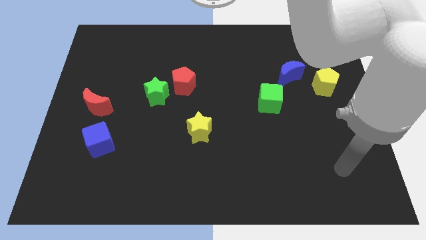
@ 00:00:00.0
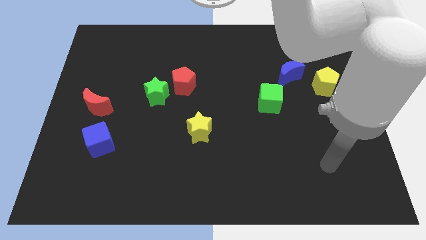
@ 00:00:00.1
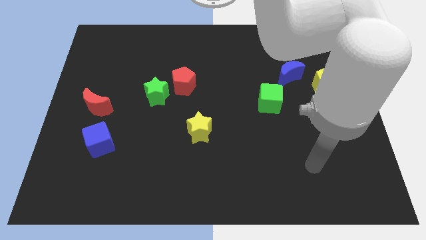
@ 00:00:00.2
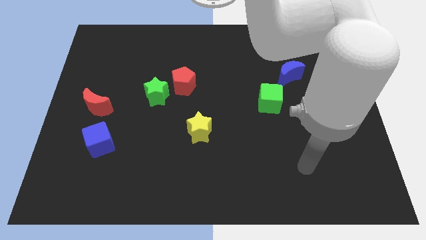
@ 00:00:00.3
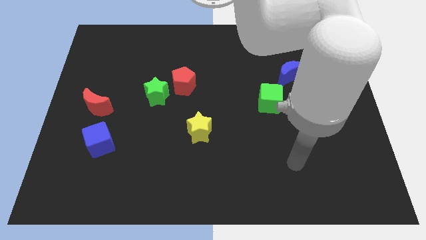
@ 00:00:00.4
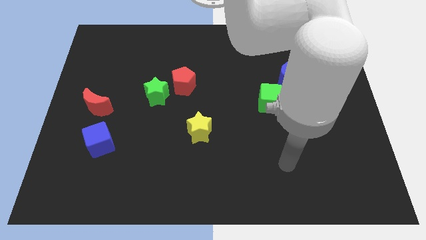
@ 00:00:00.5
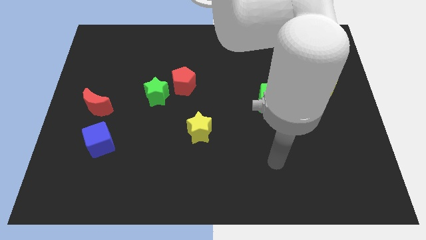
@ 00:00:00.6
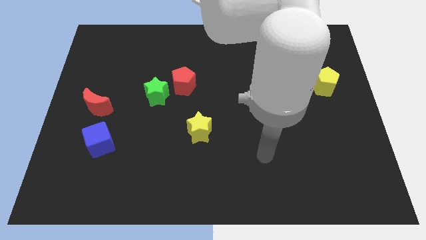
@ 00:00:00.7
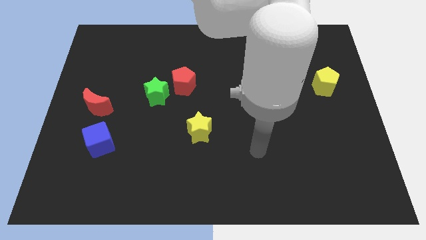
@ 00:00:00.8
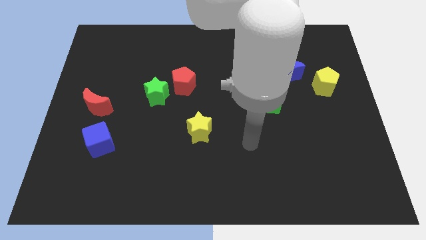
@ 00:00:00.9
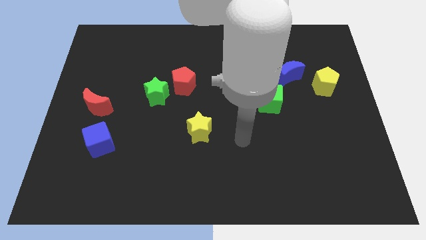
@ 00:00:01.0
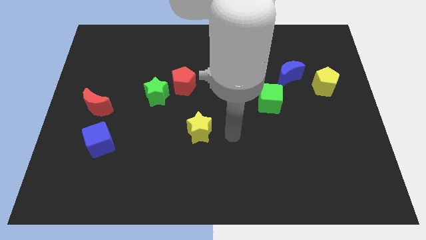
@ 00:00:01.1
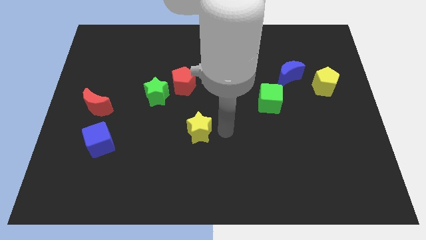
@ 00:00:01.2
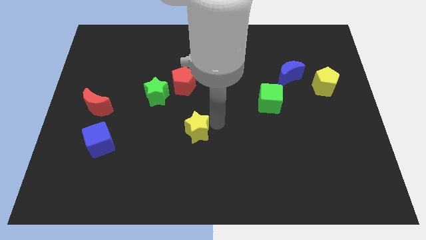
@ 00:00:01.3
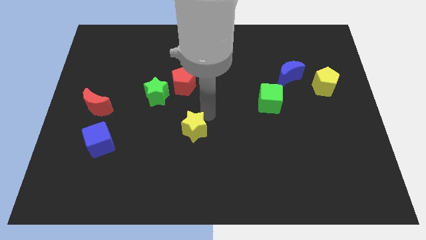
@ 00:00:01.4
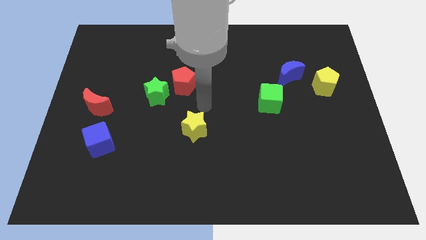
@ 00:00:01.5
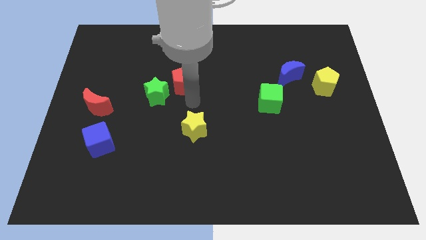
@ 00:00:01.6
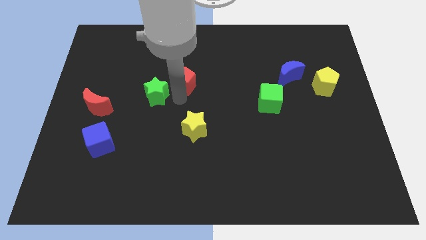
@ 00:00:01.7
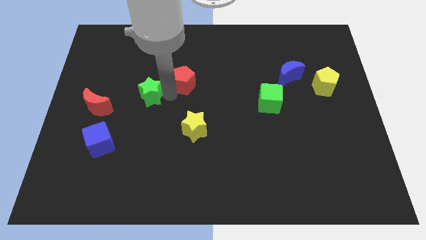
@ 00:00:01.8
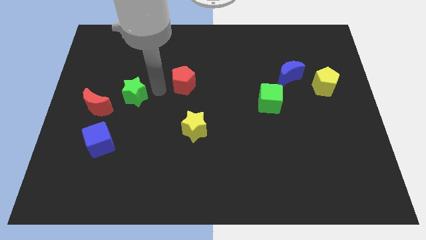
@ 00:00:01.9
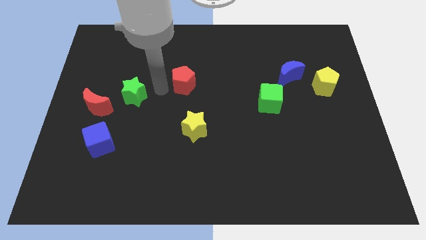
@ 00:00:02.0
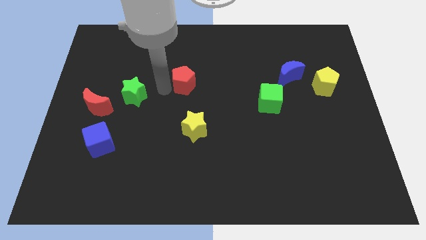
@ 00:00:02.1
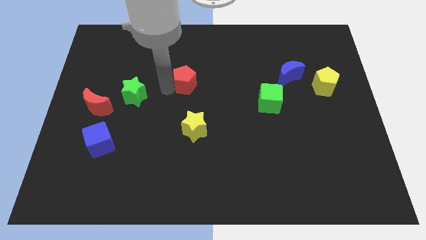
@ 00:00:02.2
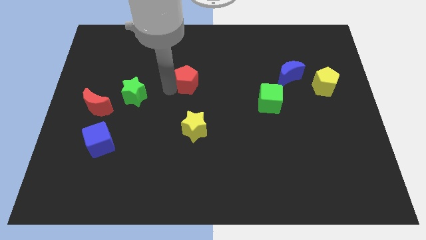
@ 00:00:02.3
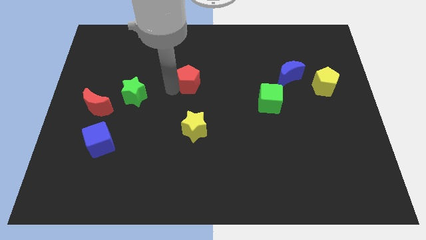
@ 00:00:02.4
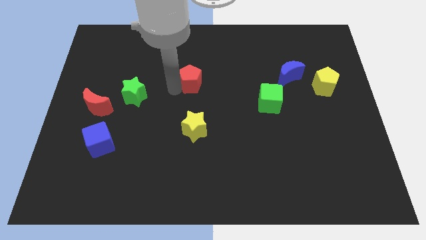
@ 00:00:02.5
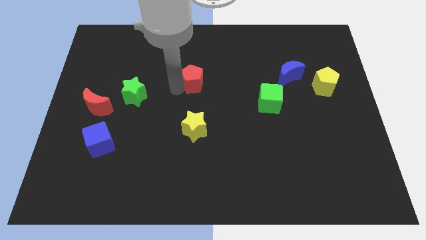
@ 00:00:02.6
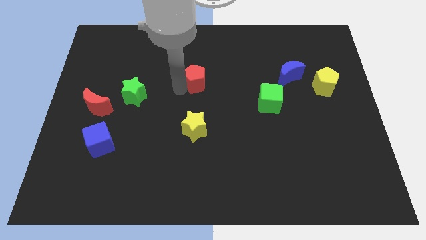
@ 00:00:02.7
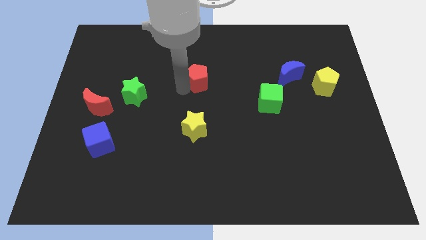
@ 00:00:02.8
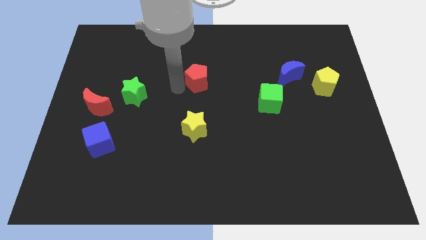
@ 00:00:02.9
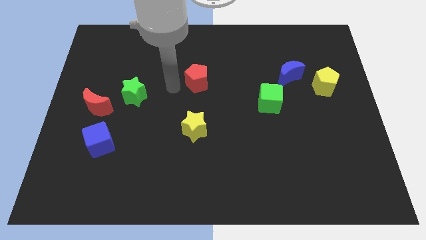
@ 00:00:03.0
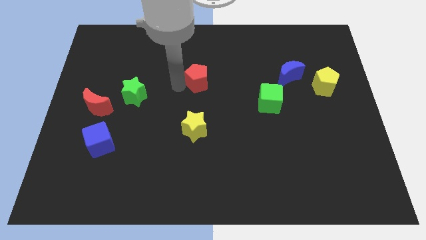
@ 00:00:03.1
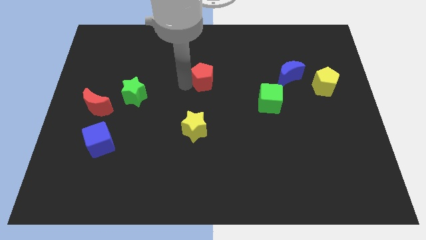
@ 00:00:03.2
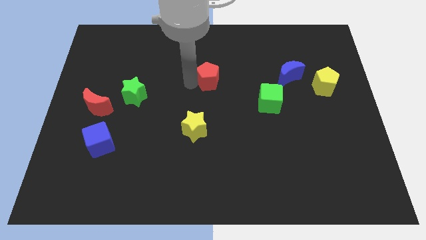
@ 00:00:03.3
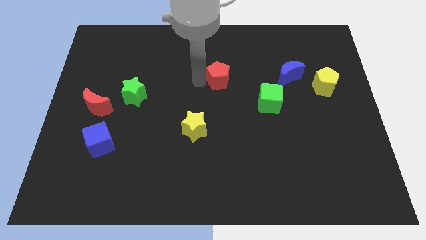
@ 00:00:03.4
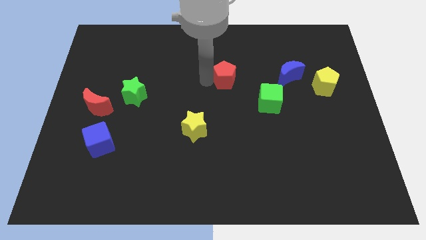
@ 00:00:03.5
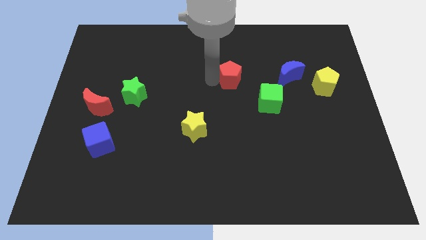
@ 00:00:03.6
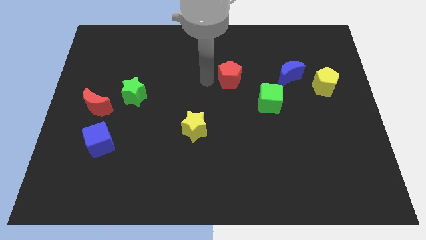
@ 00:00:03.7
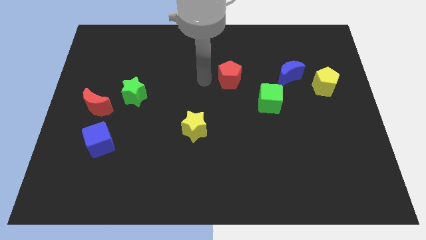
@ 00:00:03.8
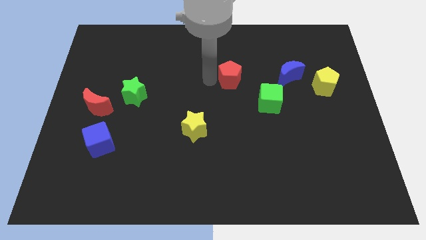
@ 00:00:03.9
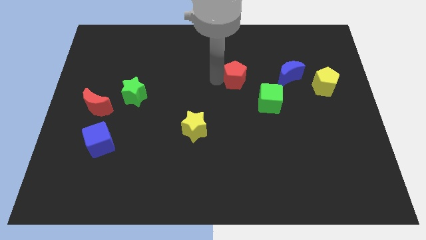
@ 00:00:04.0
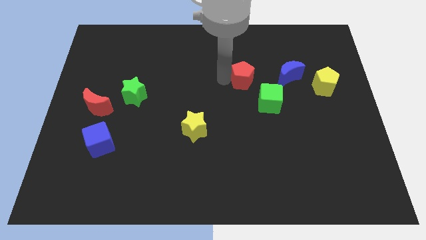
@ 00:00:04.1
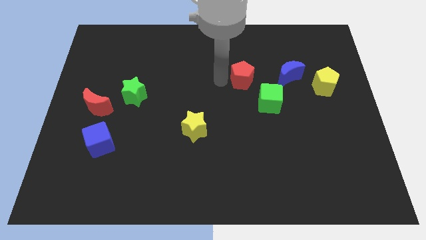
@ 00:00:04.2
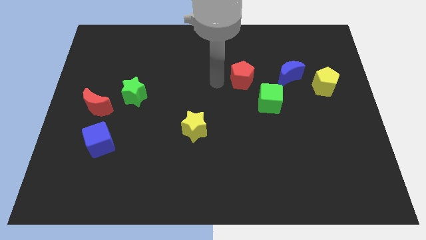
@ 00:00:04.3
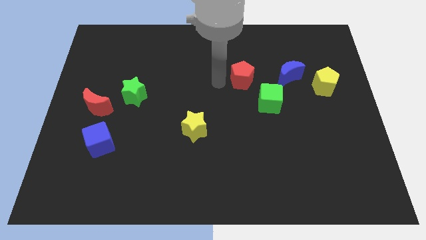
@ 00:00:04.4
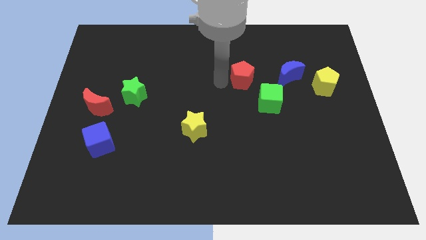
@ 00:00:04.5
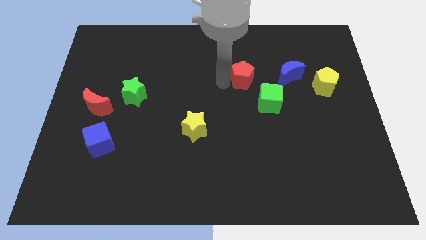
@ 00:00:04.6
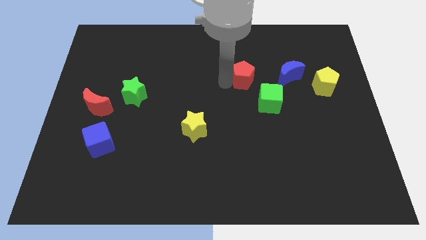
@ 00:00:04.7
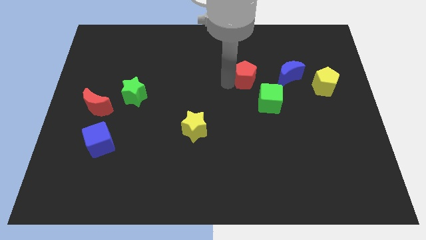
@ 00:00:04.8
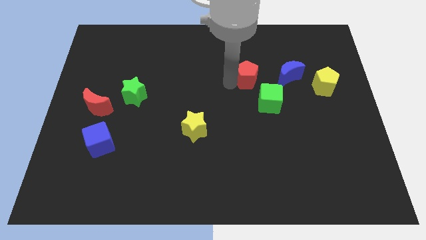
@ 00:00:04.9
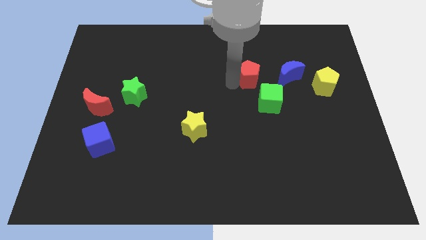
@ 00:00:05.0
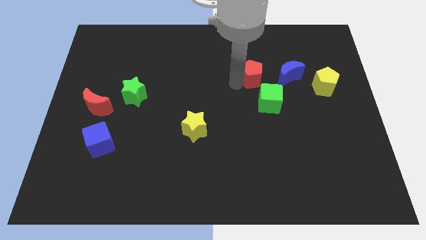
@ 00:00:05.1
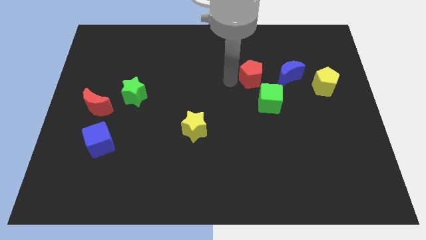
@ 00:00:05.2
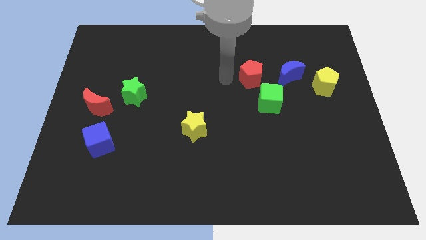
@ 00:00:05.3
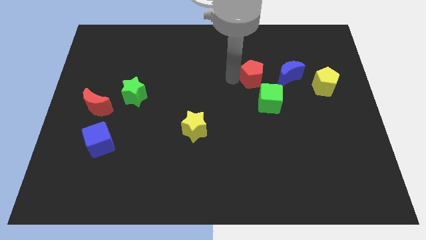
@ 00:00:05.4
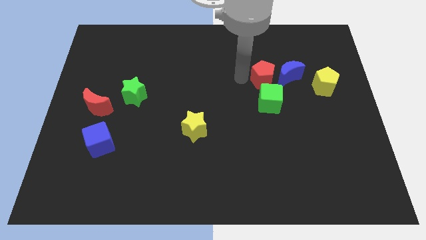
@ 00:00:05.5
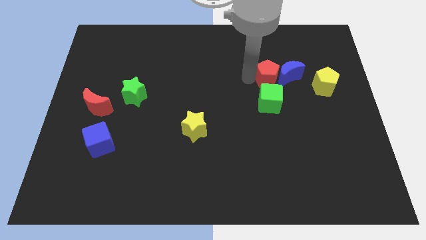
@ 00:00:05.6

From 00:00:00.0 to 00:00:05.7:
slide the red pentagon close to the blue moon

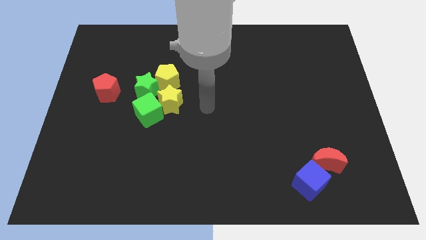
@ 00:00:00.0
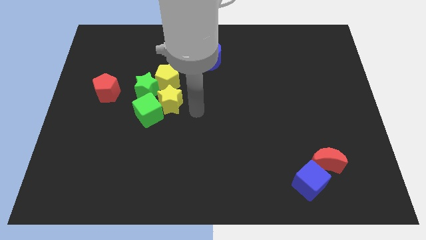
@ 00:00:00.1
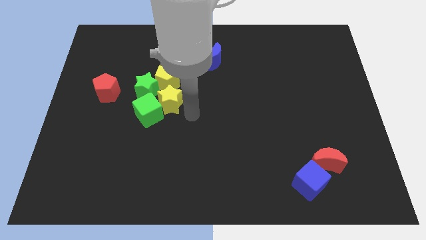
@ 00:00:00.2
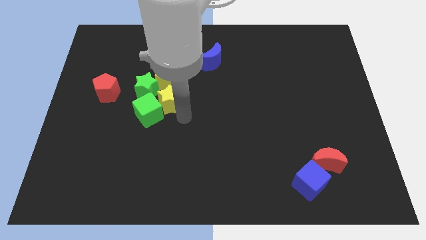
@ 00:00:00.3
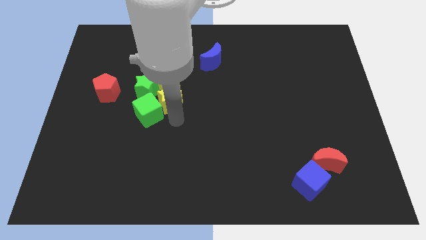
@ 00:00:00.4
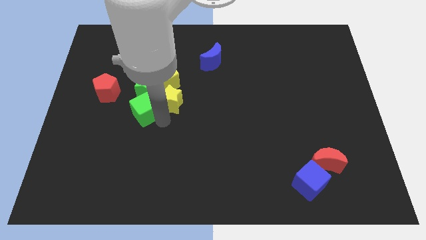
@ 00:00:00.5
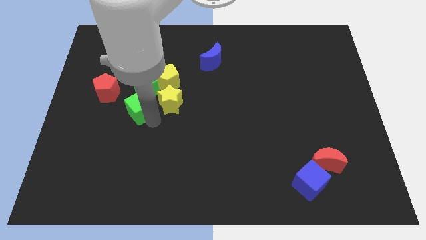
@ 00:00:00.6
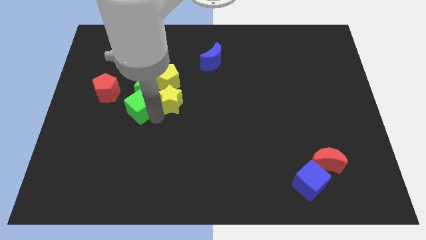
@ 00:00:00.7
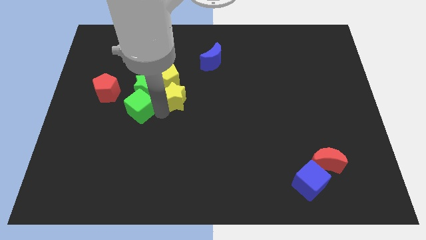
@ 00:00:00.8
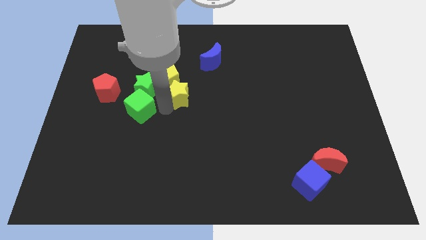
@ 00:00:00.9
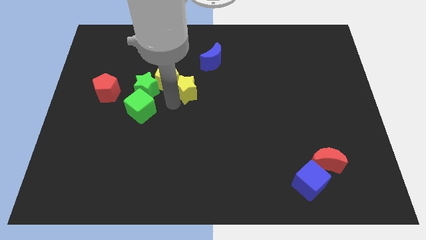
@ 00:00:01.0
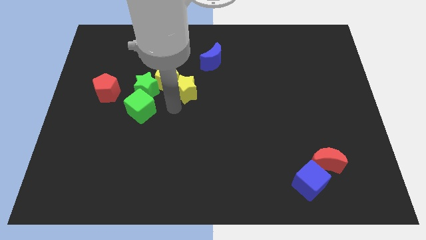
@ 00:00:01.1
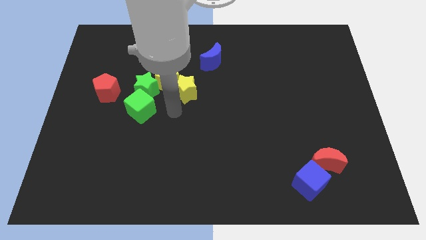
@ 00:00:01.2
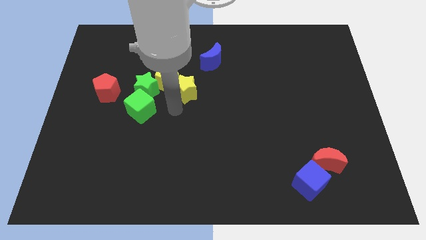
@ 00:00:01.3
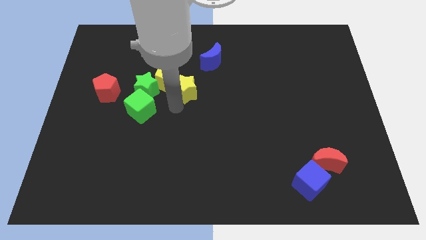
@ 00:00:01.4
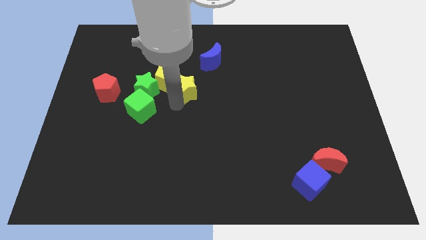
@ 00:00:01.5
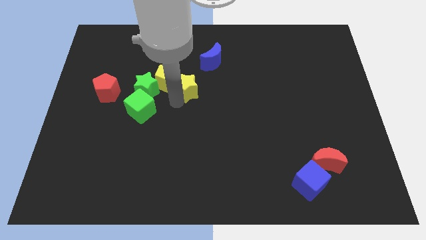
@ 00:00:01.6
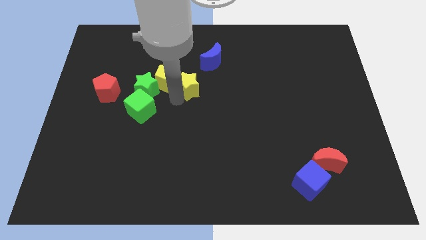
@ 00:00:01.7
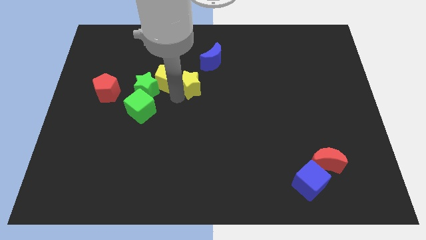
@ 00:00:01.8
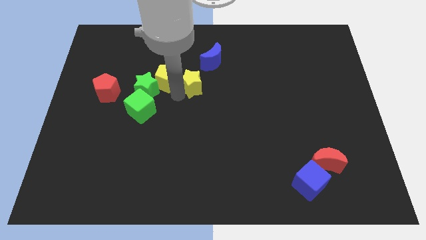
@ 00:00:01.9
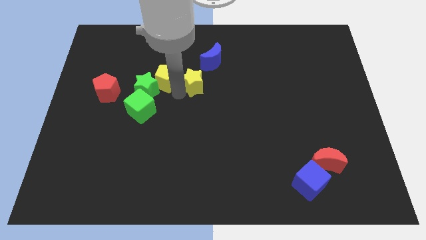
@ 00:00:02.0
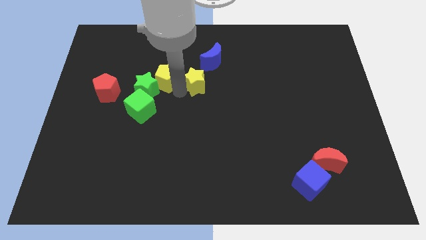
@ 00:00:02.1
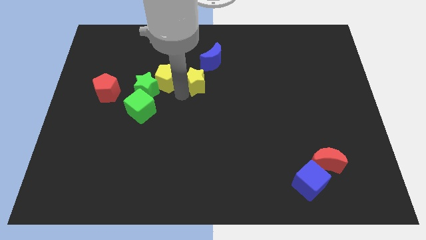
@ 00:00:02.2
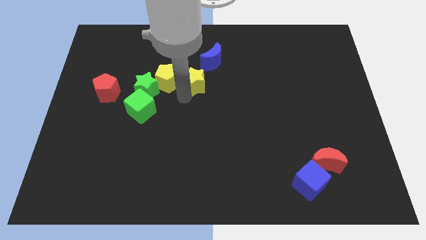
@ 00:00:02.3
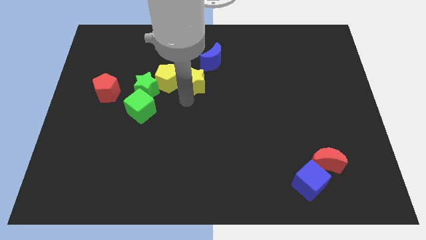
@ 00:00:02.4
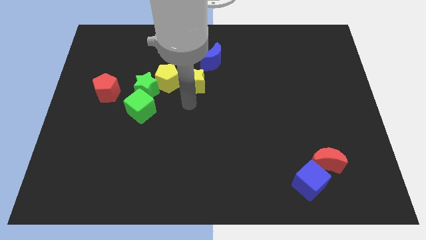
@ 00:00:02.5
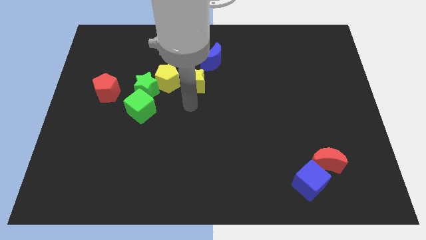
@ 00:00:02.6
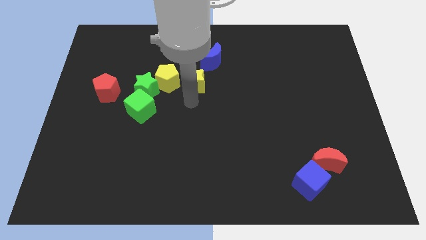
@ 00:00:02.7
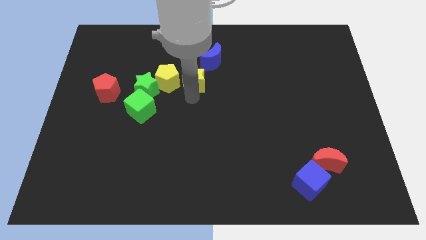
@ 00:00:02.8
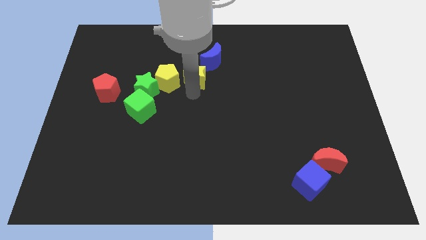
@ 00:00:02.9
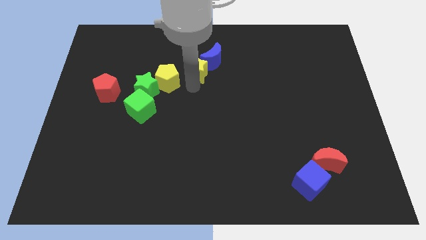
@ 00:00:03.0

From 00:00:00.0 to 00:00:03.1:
move the yellow star close to the blue moon
